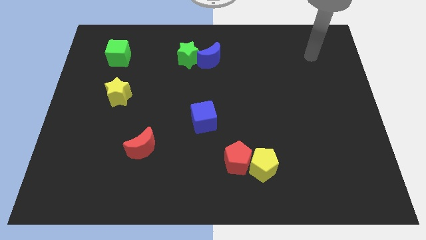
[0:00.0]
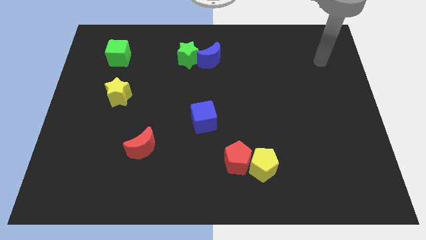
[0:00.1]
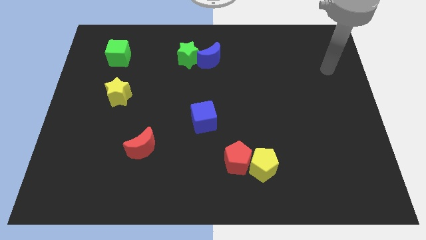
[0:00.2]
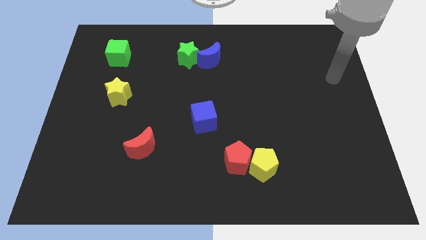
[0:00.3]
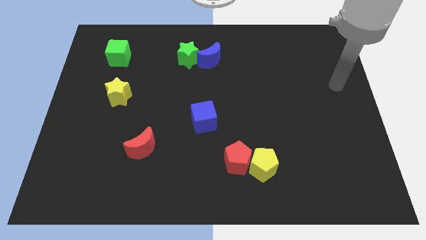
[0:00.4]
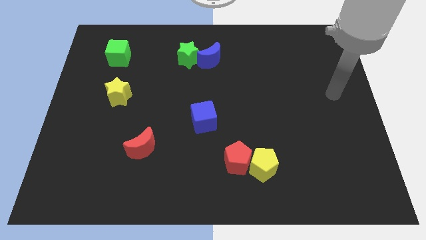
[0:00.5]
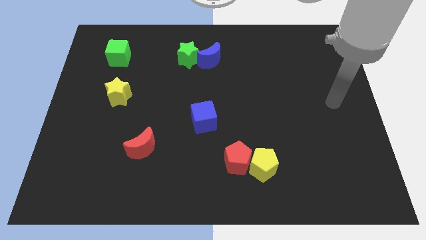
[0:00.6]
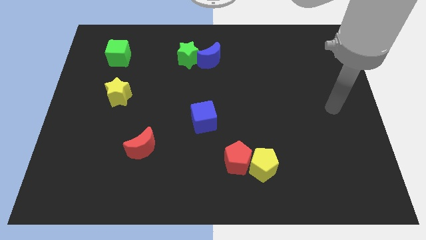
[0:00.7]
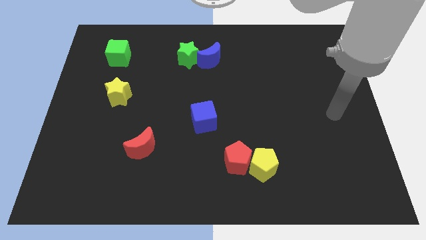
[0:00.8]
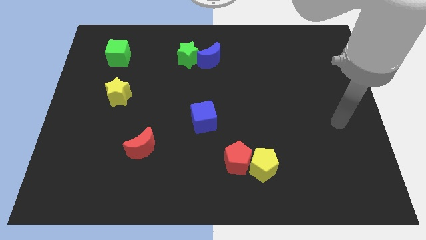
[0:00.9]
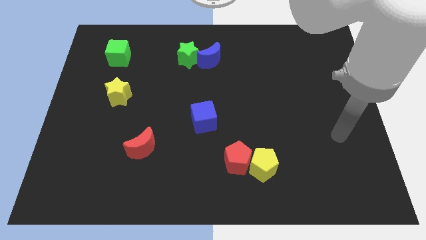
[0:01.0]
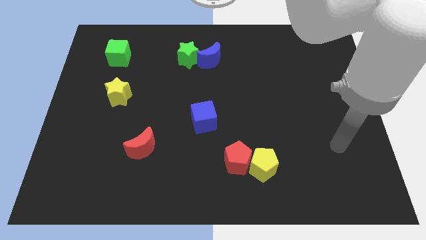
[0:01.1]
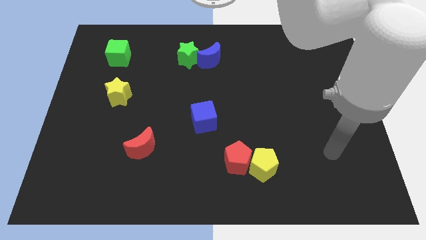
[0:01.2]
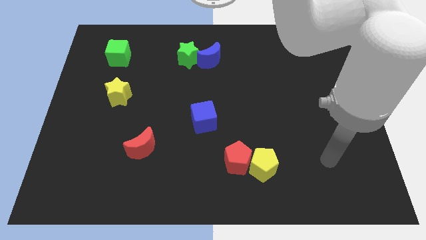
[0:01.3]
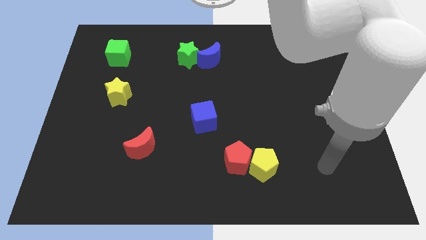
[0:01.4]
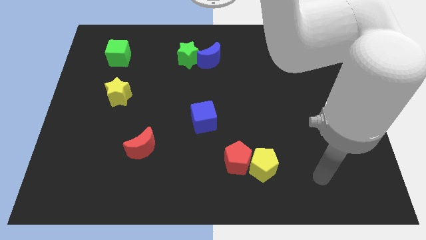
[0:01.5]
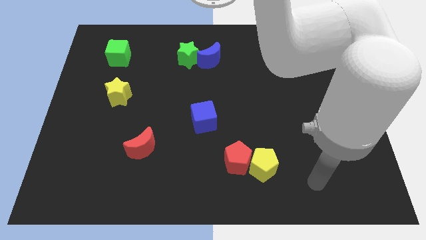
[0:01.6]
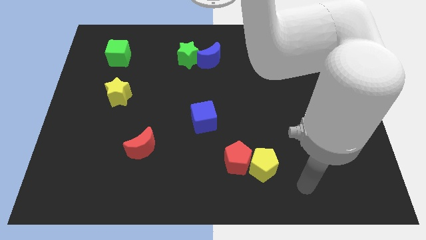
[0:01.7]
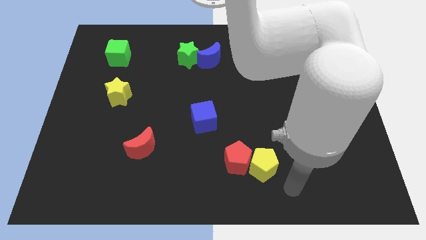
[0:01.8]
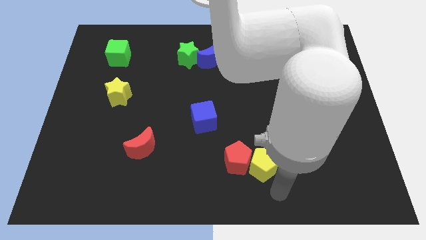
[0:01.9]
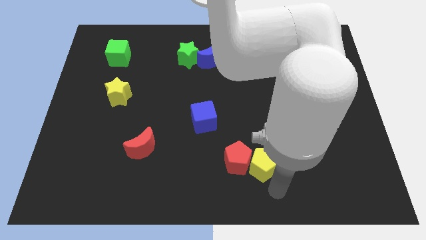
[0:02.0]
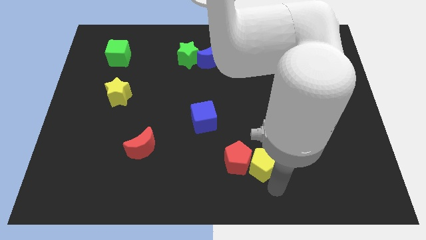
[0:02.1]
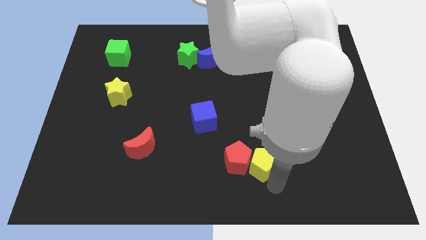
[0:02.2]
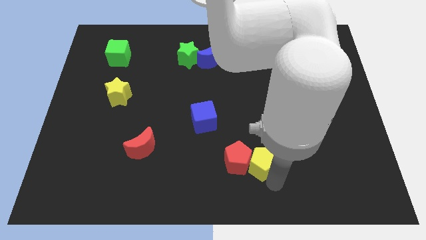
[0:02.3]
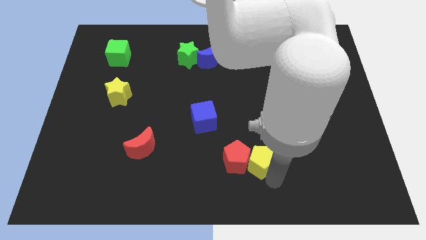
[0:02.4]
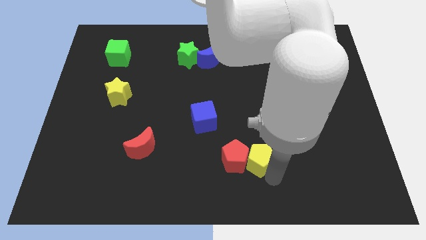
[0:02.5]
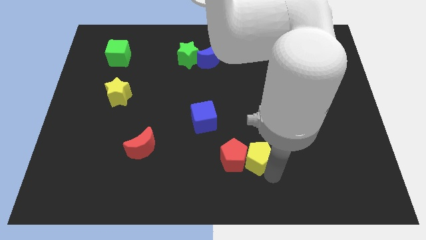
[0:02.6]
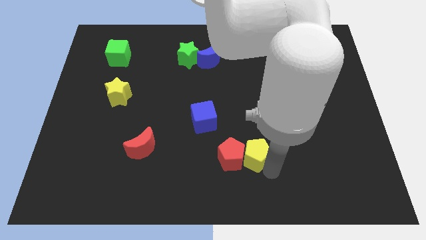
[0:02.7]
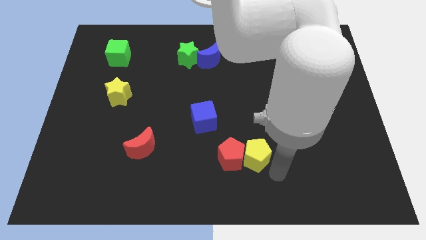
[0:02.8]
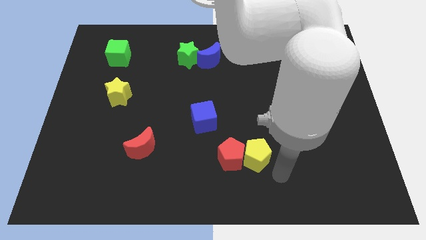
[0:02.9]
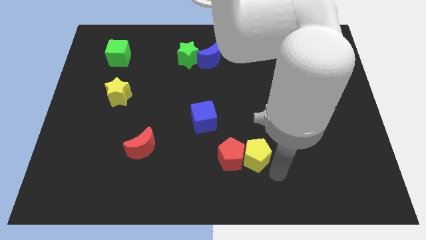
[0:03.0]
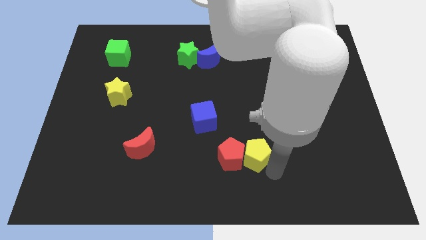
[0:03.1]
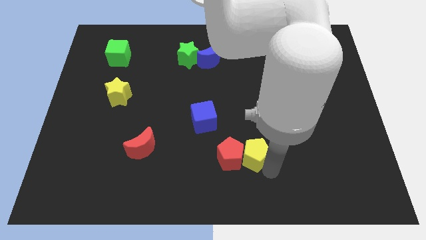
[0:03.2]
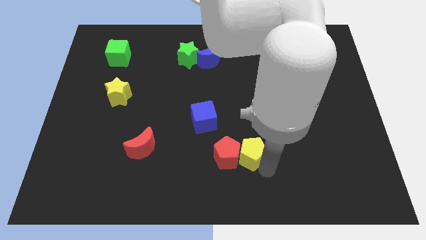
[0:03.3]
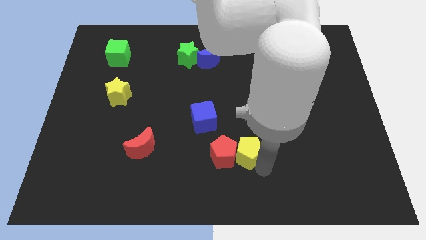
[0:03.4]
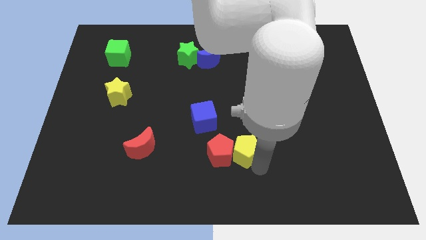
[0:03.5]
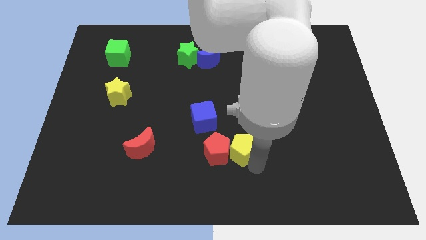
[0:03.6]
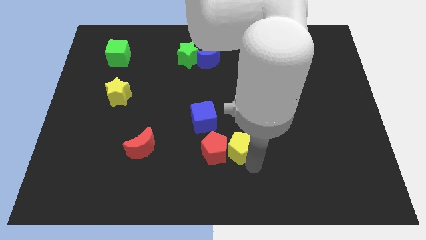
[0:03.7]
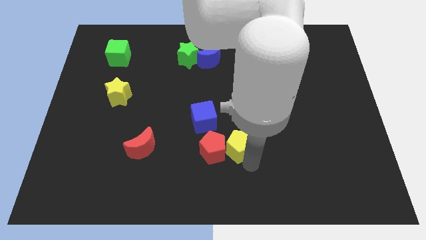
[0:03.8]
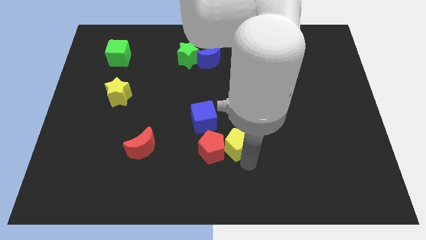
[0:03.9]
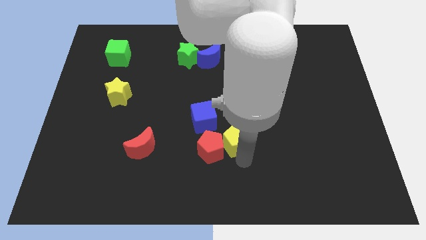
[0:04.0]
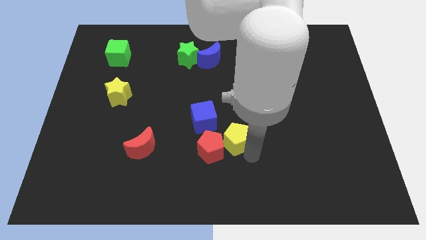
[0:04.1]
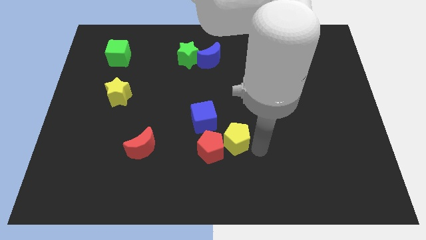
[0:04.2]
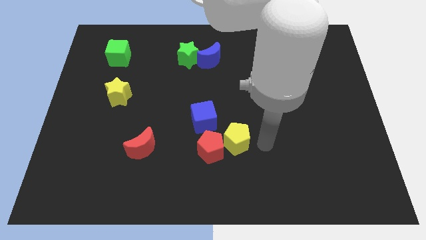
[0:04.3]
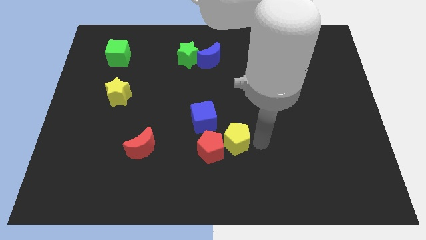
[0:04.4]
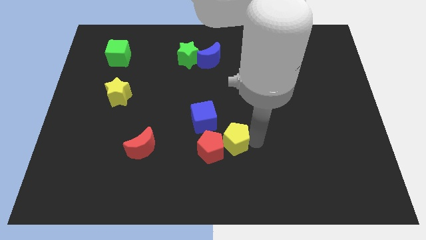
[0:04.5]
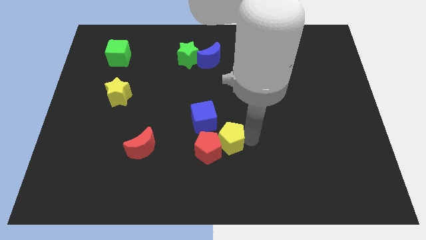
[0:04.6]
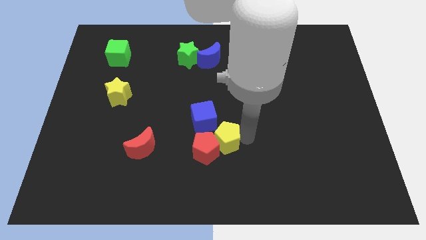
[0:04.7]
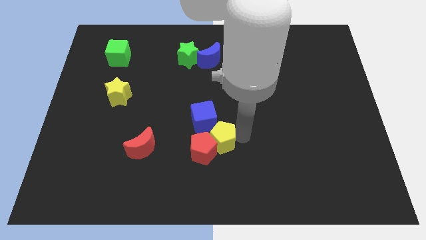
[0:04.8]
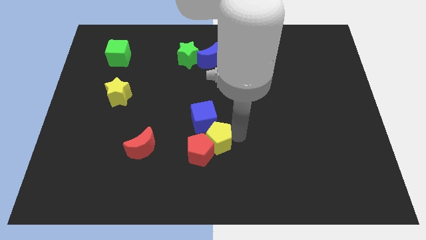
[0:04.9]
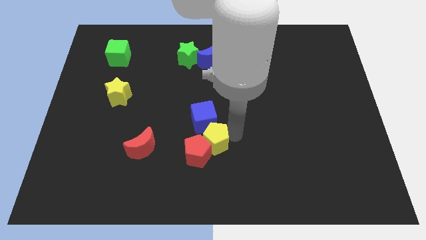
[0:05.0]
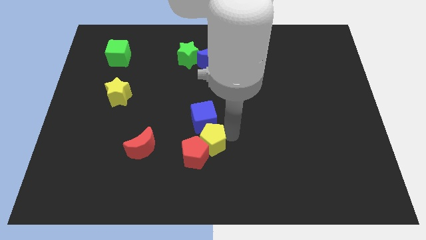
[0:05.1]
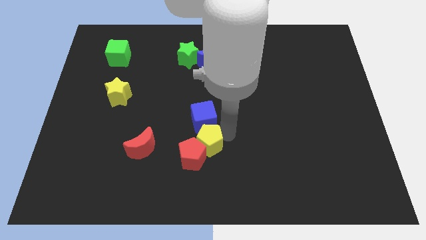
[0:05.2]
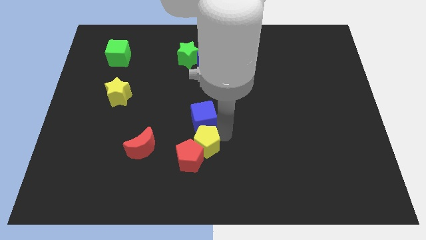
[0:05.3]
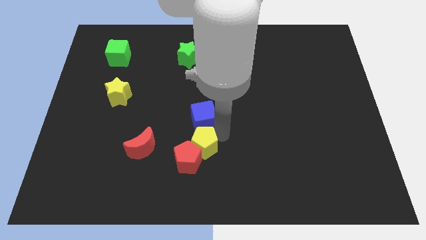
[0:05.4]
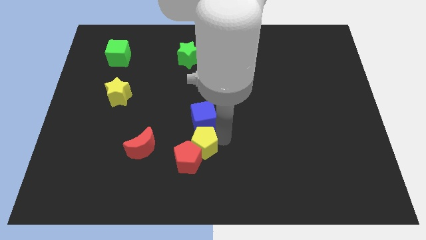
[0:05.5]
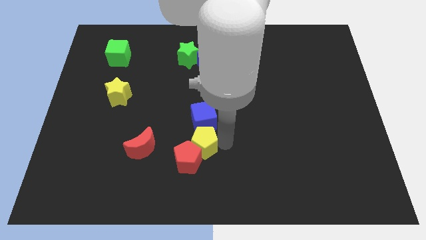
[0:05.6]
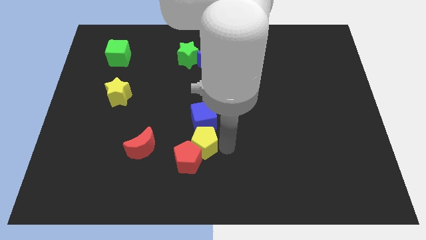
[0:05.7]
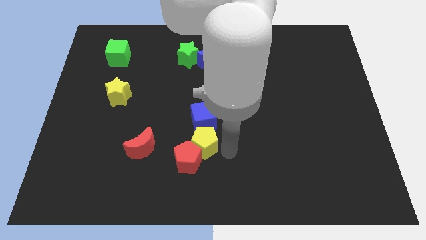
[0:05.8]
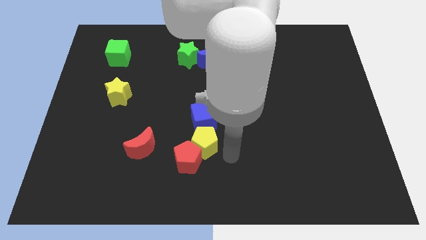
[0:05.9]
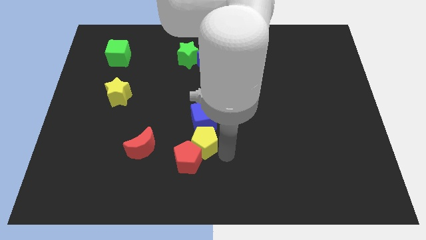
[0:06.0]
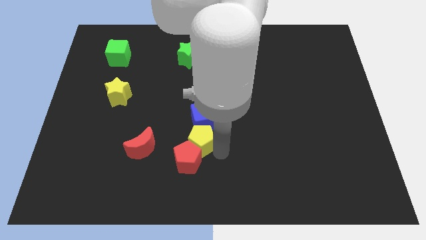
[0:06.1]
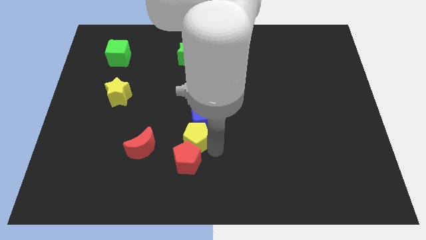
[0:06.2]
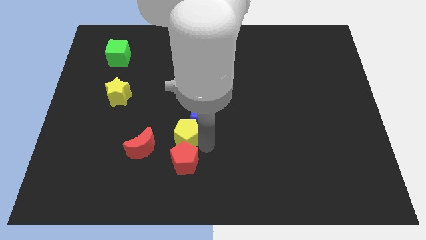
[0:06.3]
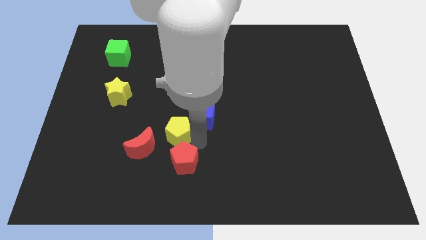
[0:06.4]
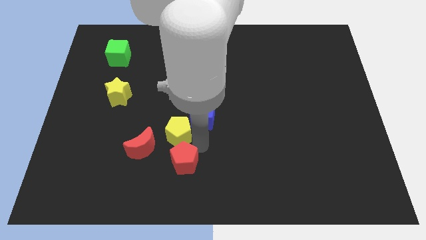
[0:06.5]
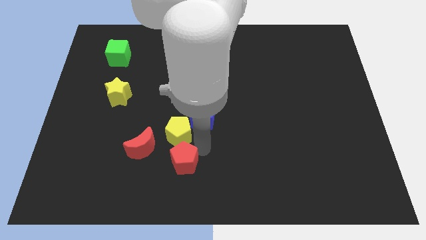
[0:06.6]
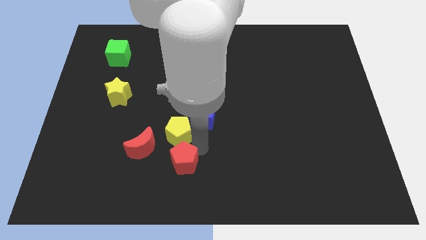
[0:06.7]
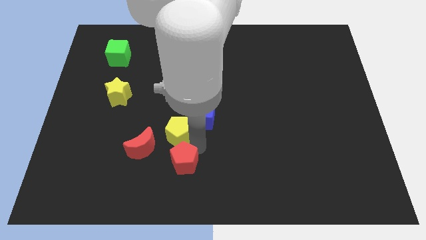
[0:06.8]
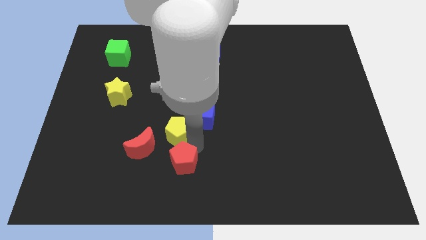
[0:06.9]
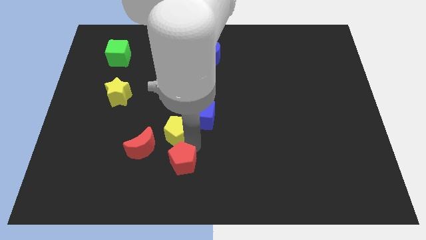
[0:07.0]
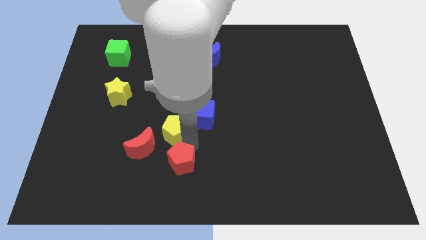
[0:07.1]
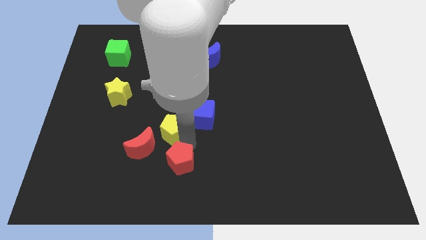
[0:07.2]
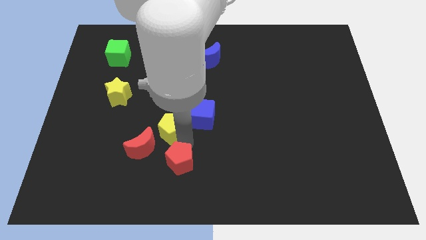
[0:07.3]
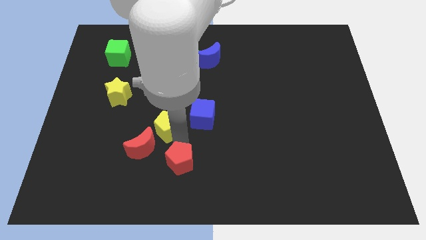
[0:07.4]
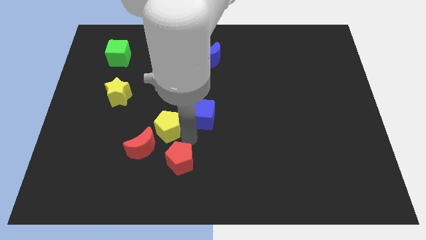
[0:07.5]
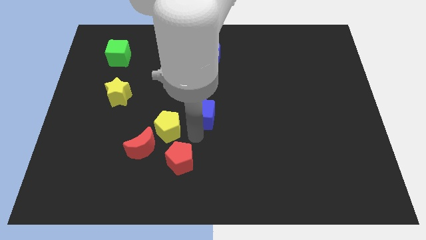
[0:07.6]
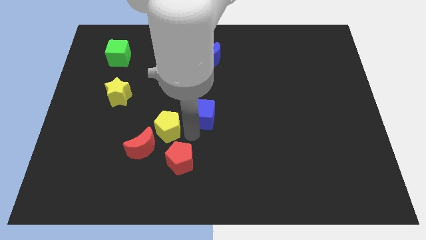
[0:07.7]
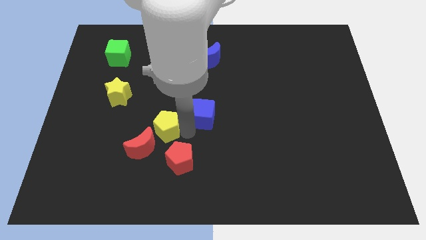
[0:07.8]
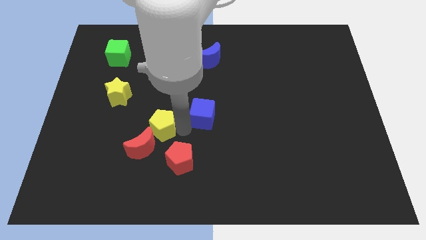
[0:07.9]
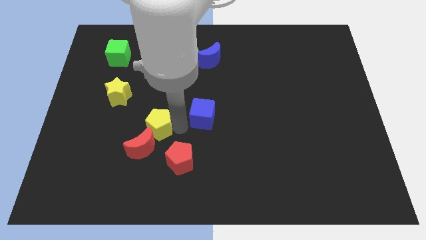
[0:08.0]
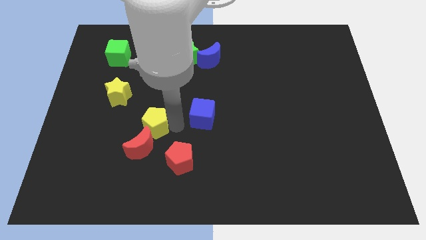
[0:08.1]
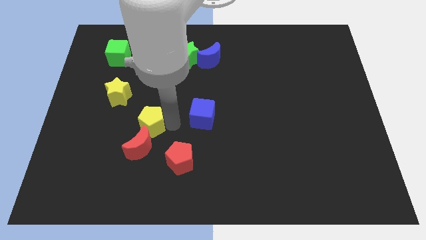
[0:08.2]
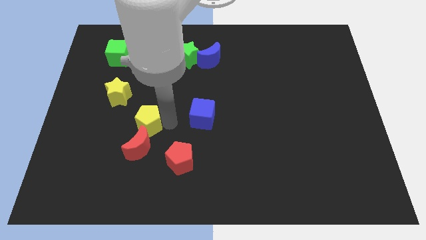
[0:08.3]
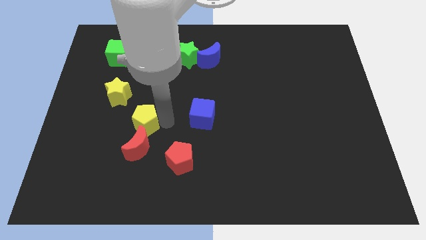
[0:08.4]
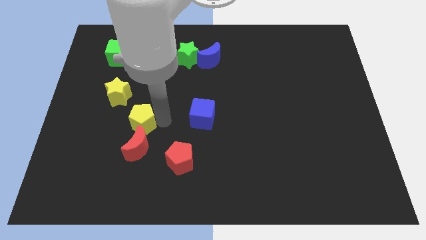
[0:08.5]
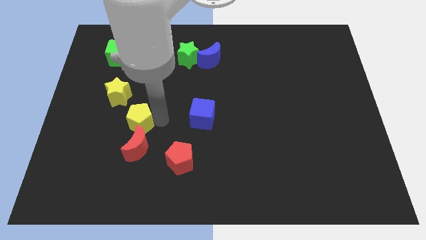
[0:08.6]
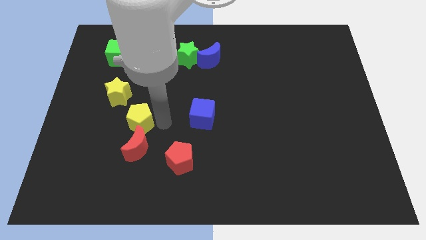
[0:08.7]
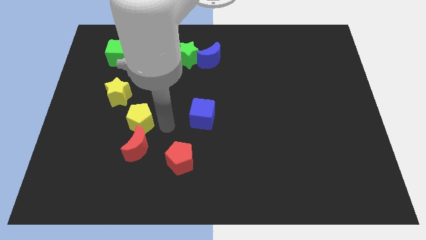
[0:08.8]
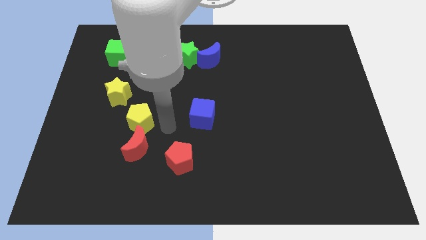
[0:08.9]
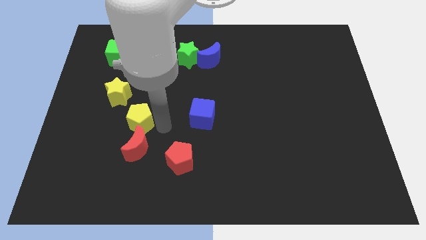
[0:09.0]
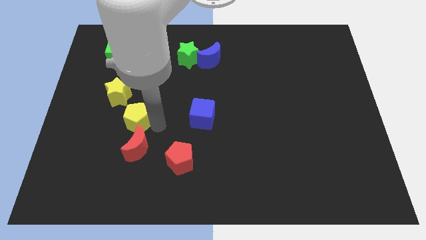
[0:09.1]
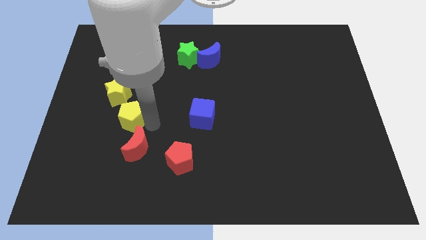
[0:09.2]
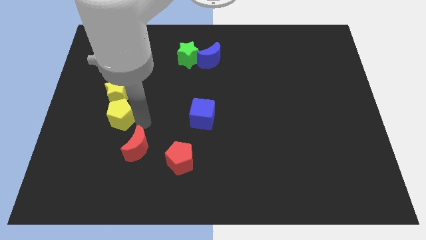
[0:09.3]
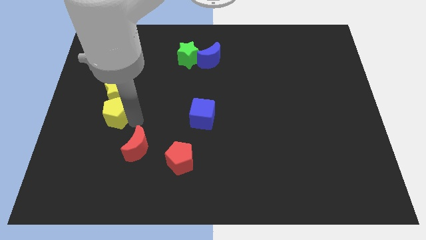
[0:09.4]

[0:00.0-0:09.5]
put the yellow pentagon to the bottom left of the yellow star
